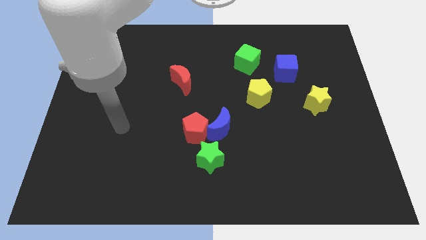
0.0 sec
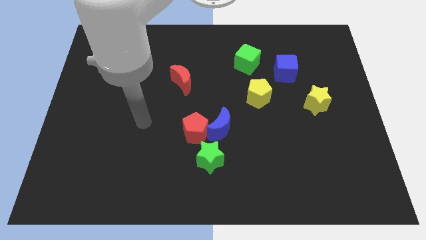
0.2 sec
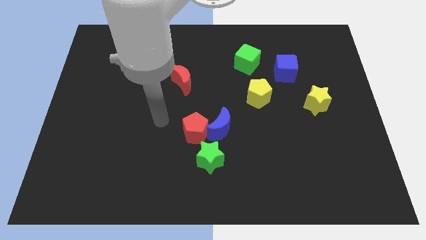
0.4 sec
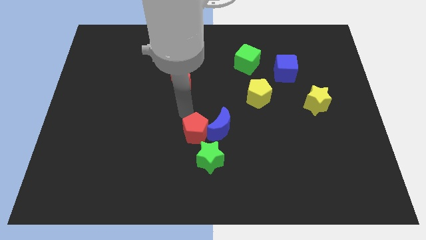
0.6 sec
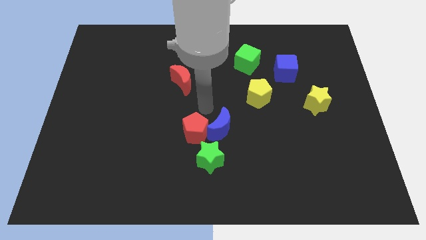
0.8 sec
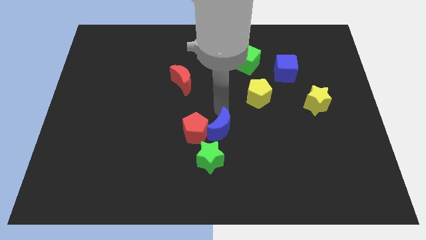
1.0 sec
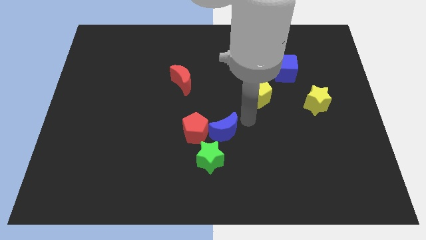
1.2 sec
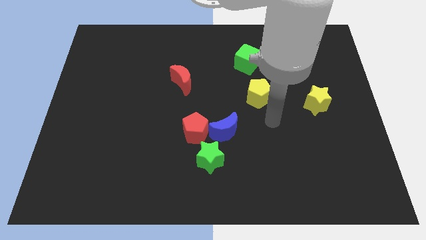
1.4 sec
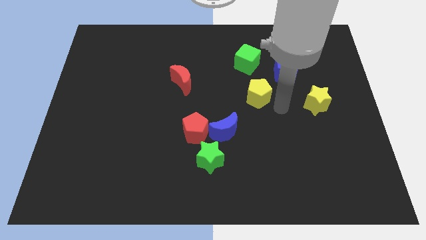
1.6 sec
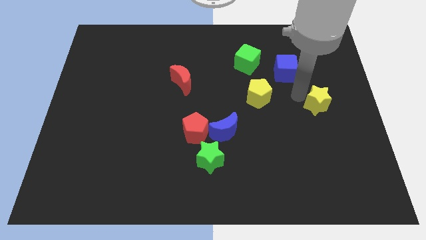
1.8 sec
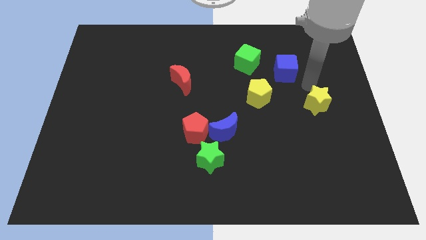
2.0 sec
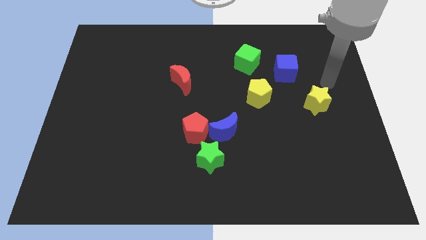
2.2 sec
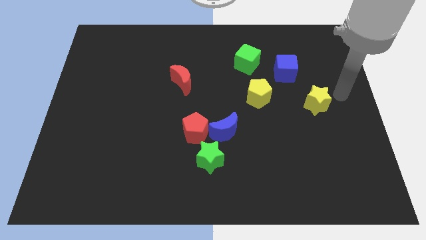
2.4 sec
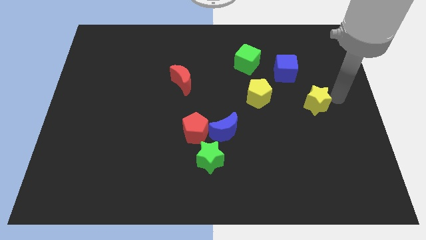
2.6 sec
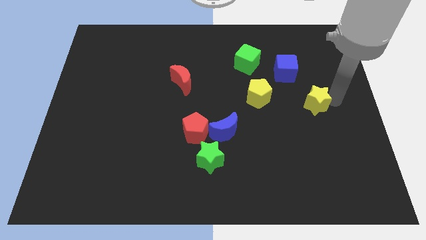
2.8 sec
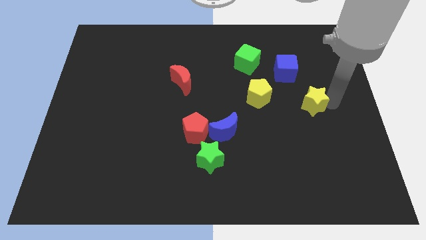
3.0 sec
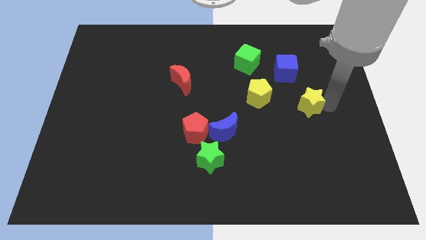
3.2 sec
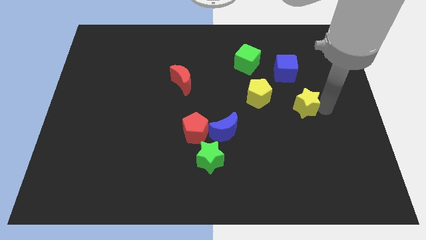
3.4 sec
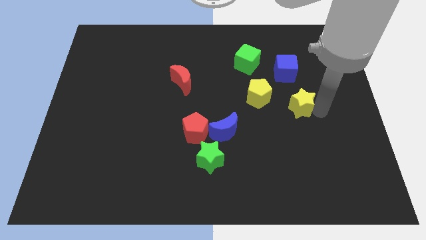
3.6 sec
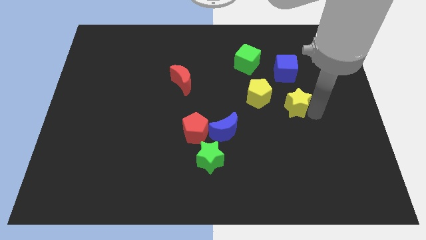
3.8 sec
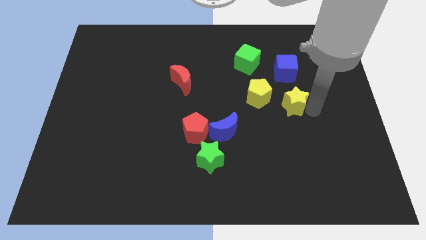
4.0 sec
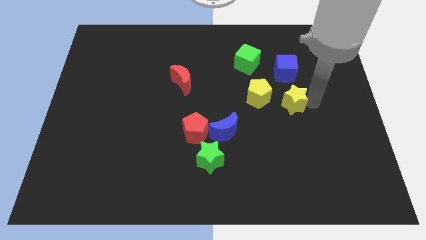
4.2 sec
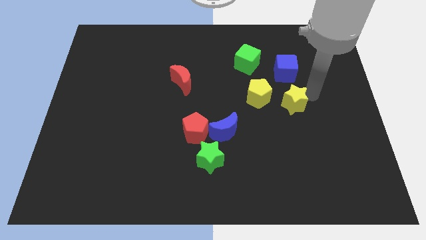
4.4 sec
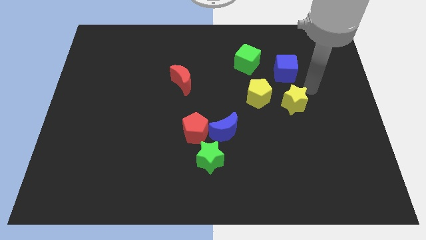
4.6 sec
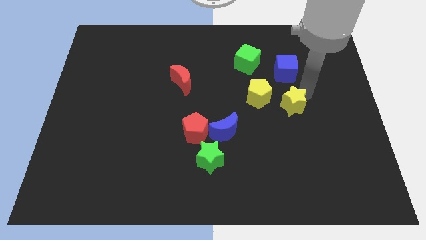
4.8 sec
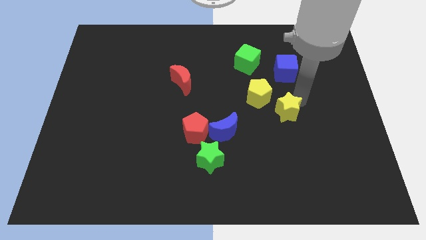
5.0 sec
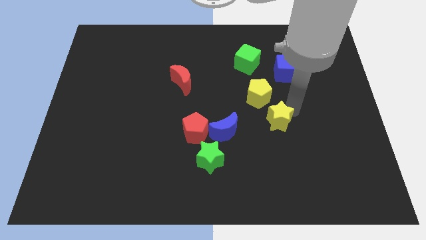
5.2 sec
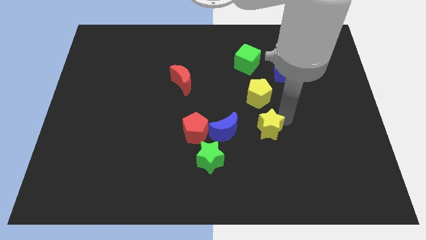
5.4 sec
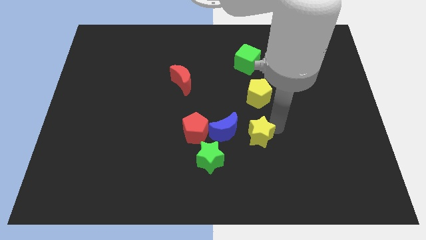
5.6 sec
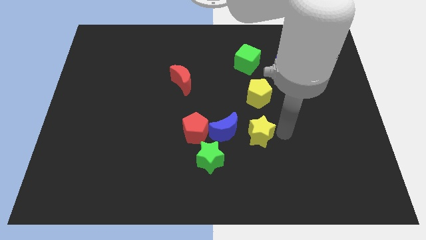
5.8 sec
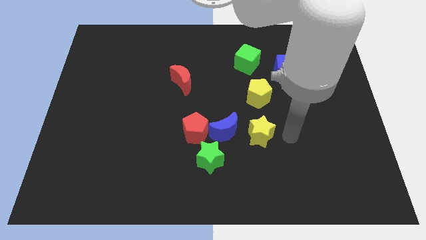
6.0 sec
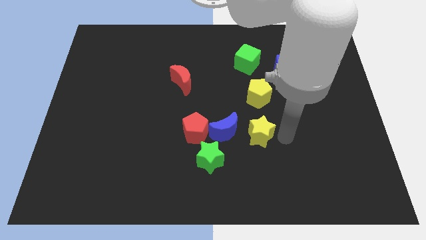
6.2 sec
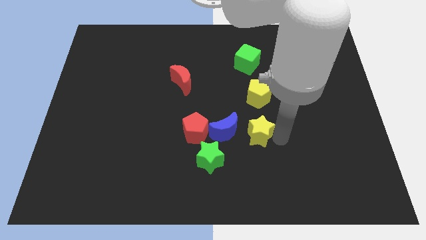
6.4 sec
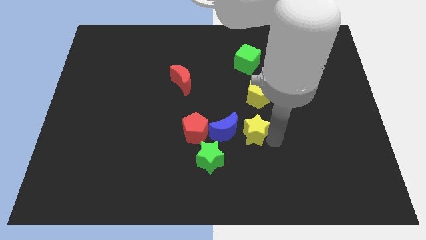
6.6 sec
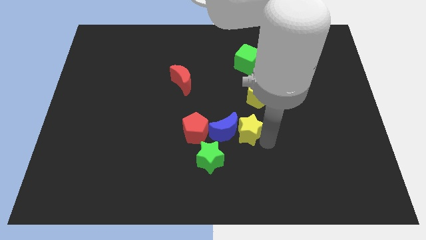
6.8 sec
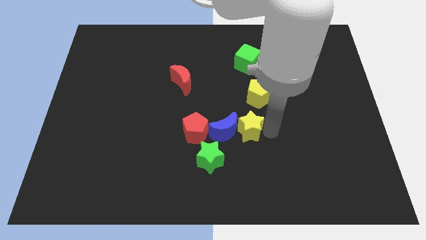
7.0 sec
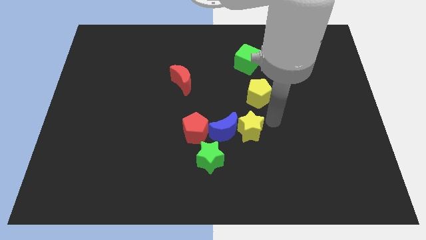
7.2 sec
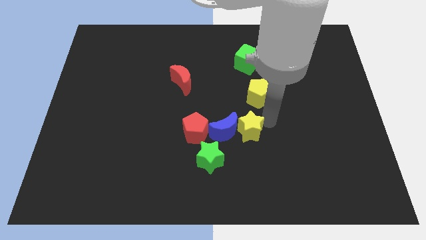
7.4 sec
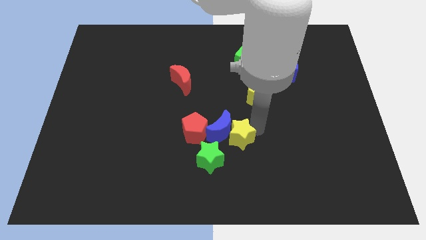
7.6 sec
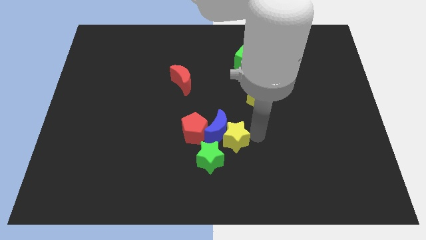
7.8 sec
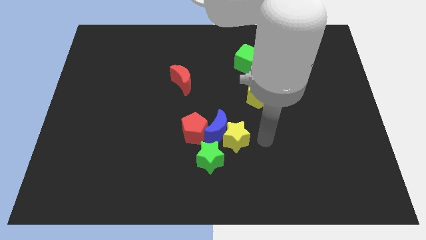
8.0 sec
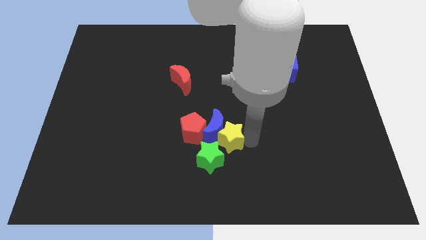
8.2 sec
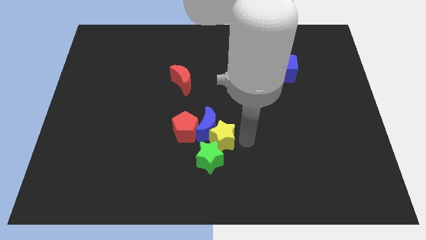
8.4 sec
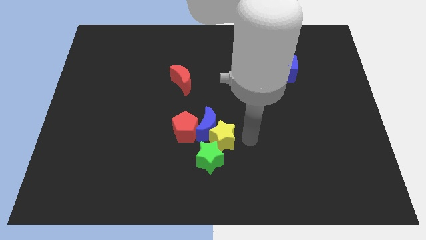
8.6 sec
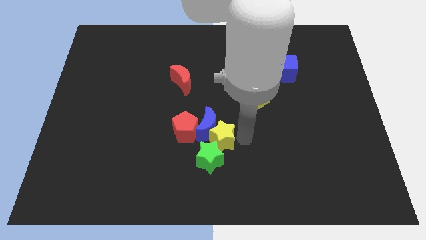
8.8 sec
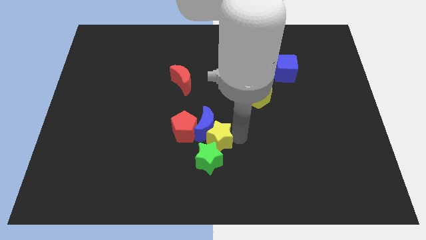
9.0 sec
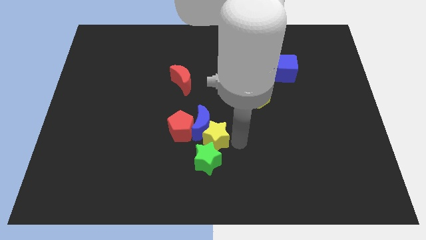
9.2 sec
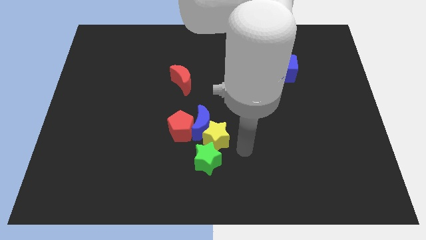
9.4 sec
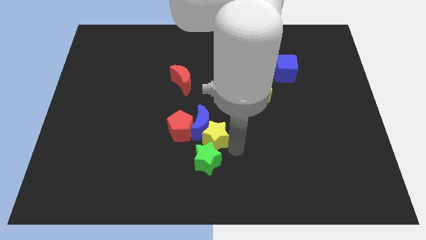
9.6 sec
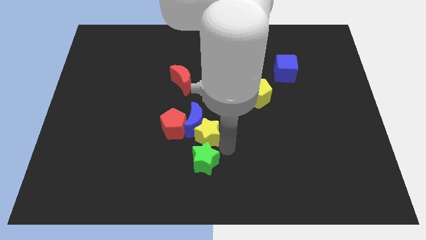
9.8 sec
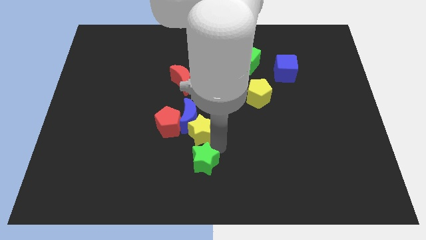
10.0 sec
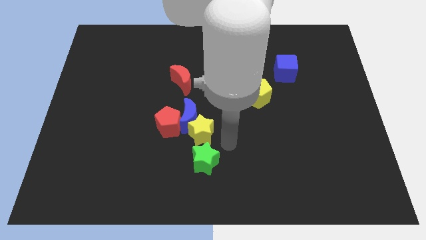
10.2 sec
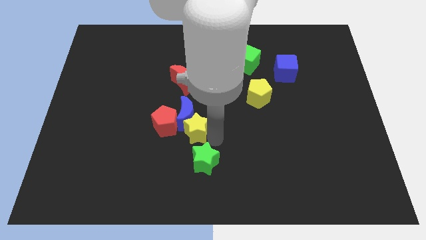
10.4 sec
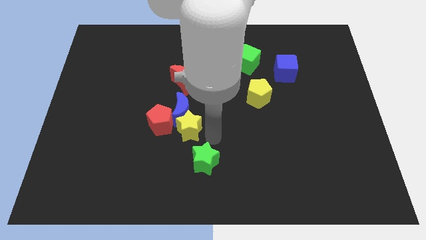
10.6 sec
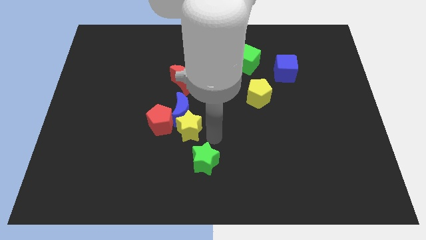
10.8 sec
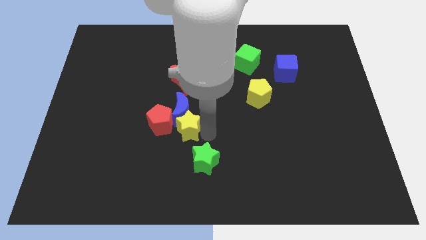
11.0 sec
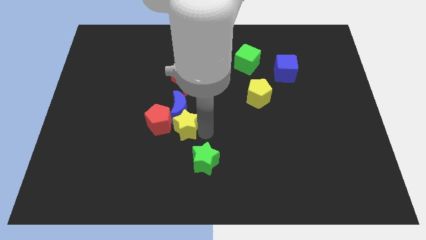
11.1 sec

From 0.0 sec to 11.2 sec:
slide the yellow star next to the red pentagon
